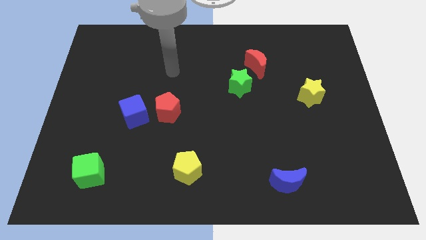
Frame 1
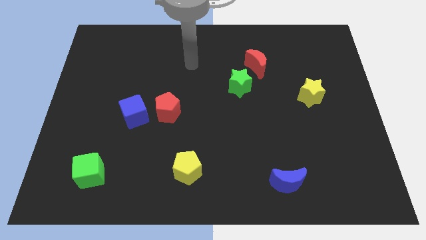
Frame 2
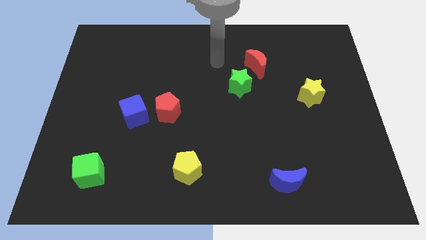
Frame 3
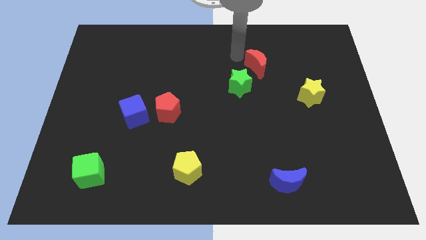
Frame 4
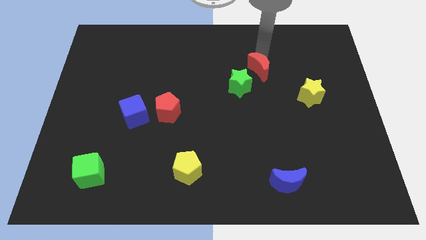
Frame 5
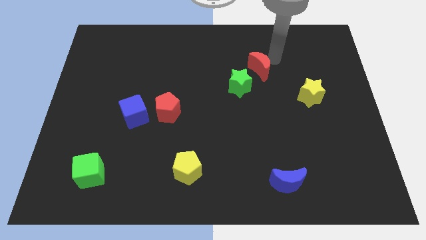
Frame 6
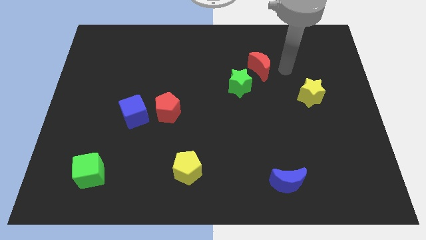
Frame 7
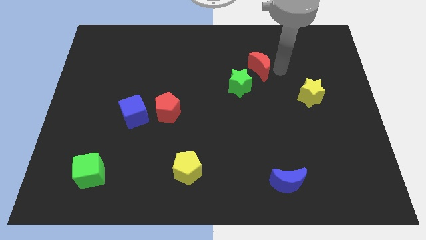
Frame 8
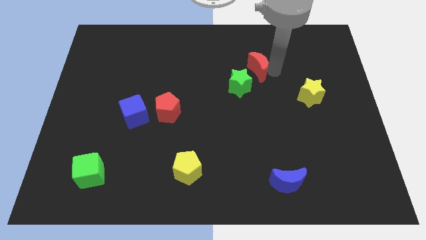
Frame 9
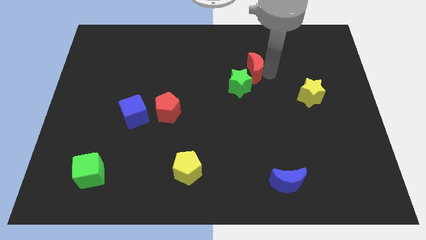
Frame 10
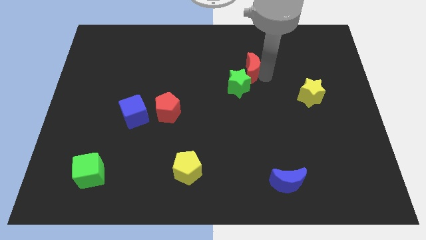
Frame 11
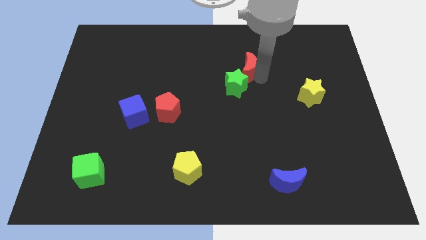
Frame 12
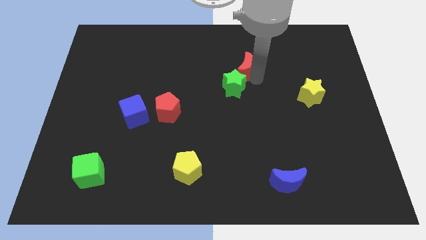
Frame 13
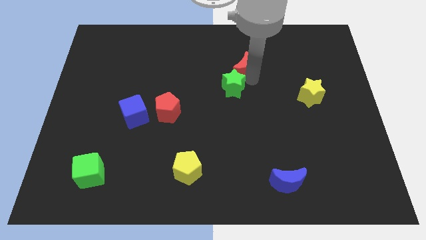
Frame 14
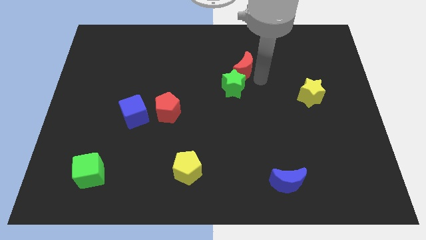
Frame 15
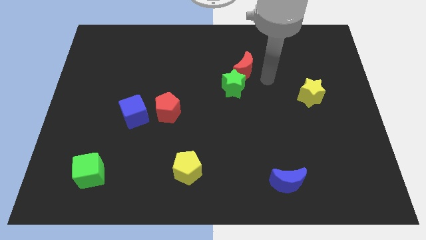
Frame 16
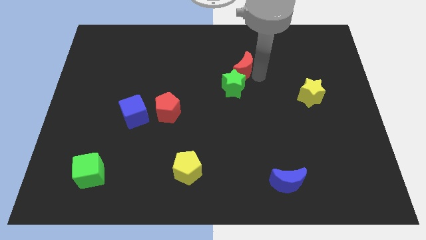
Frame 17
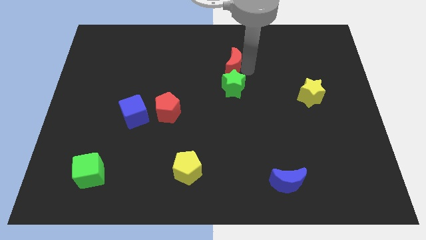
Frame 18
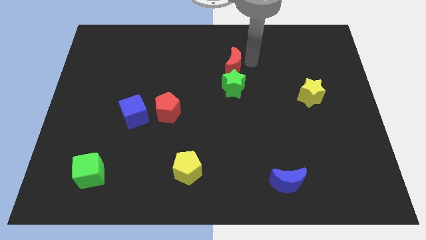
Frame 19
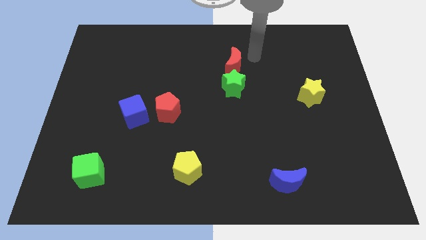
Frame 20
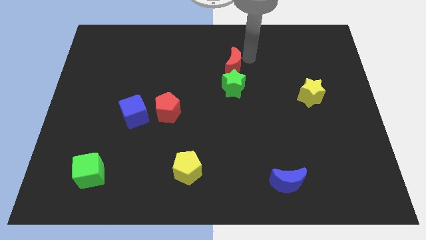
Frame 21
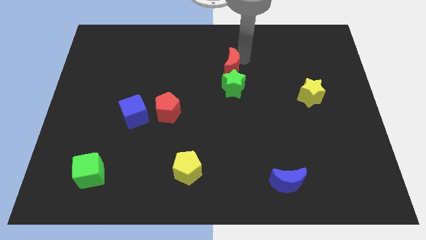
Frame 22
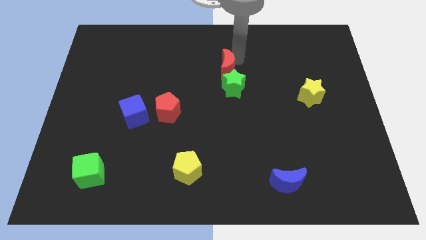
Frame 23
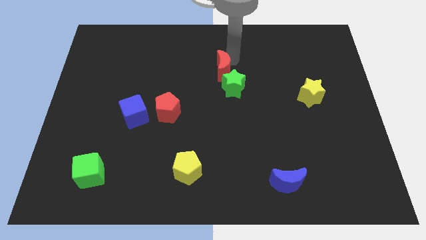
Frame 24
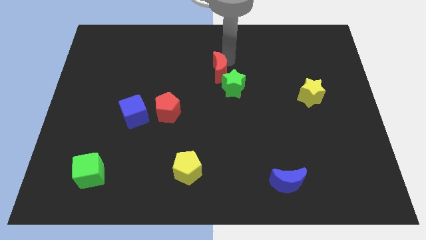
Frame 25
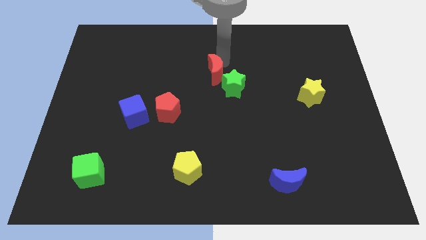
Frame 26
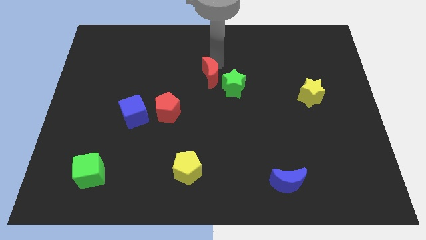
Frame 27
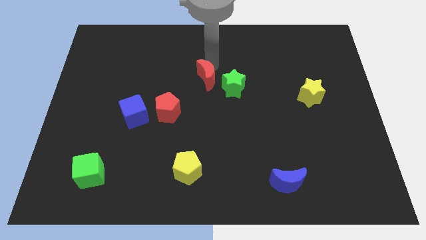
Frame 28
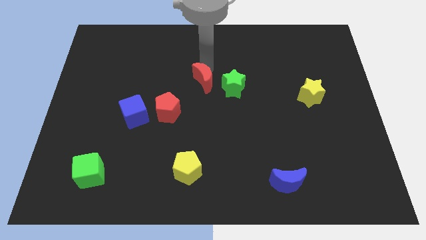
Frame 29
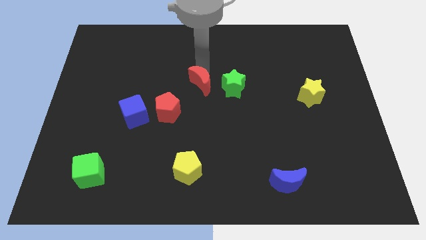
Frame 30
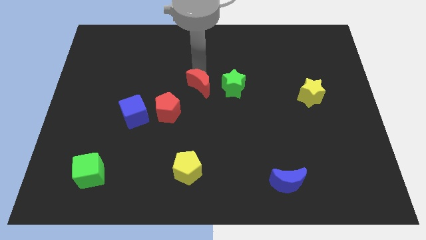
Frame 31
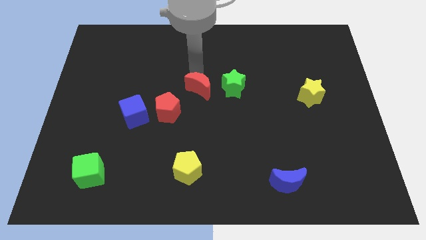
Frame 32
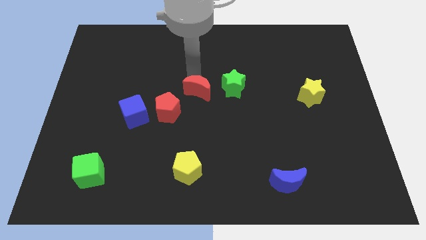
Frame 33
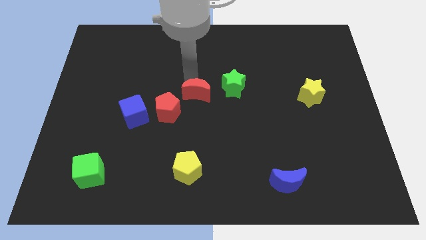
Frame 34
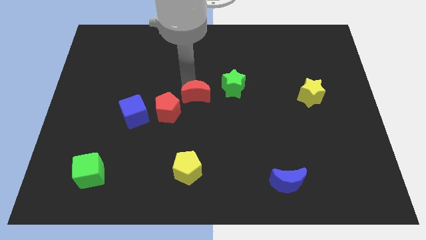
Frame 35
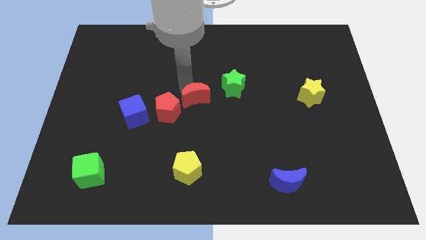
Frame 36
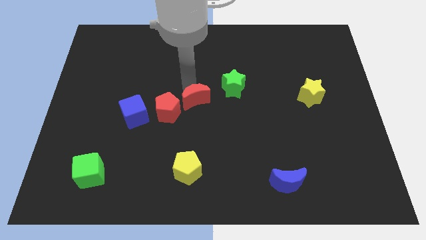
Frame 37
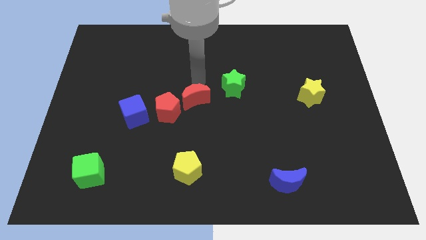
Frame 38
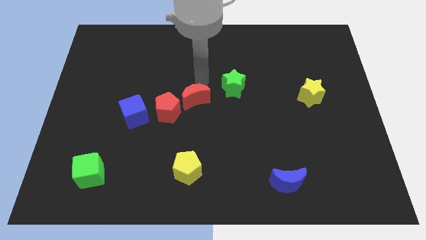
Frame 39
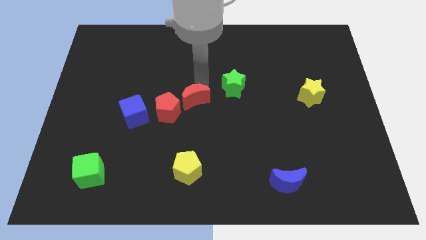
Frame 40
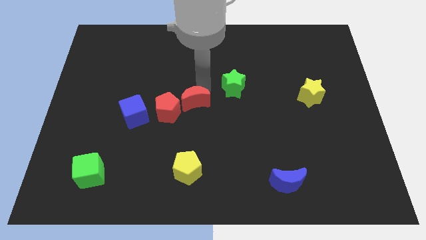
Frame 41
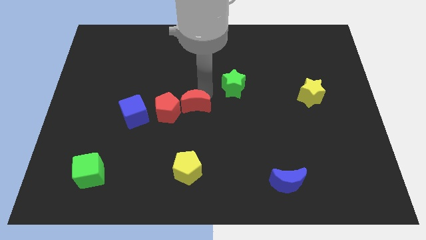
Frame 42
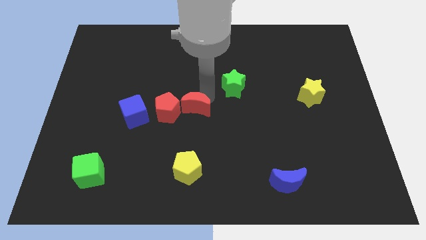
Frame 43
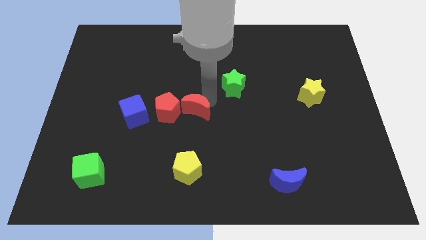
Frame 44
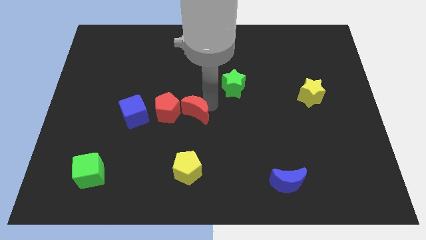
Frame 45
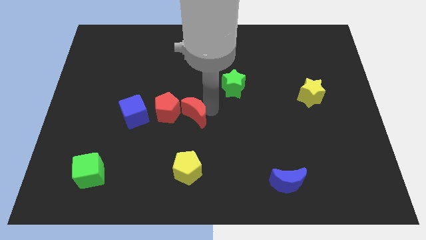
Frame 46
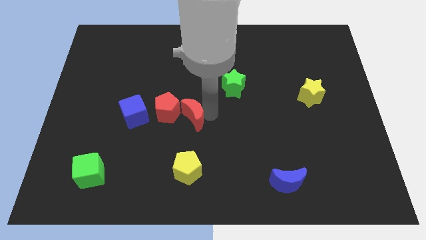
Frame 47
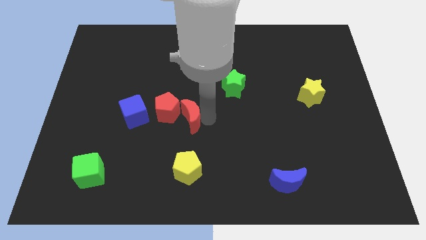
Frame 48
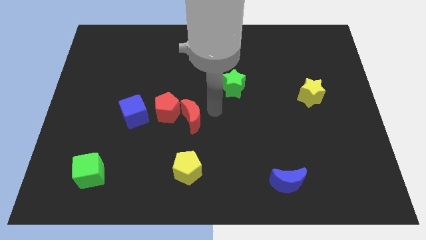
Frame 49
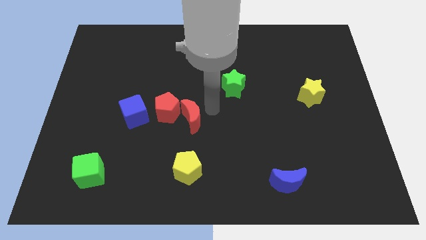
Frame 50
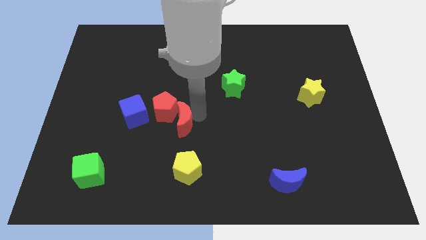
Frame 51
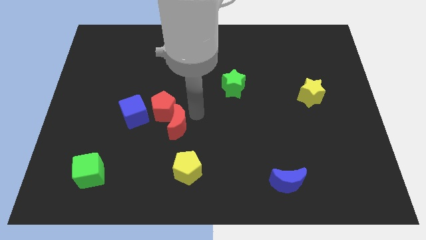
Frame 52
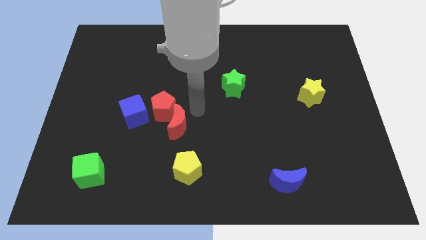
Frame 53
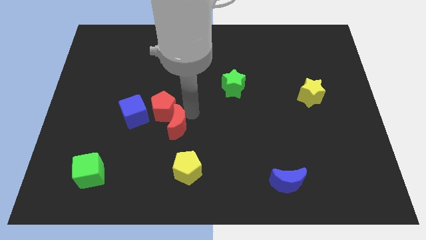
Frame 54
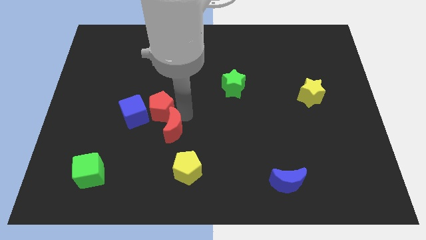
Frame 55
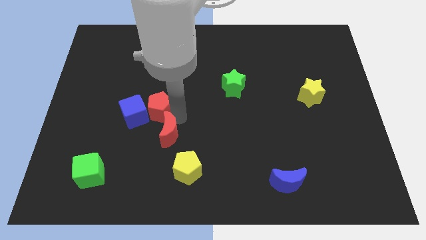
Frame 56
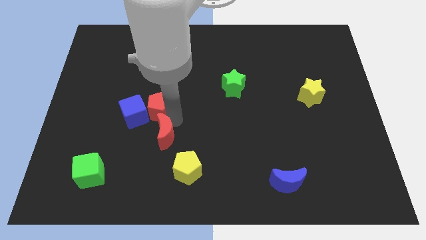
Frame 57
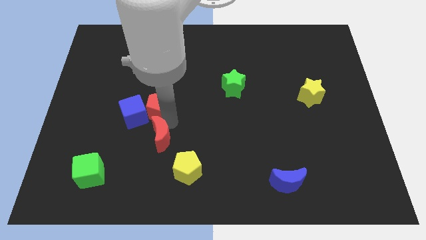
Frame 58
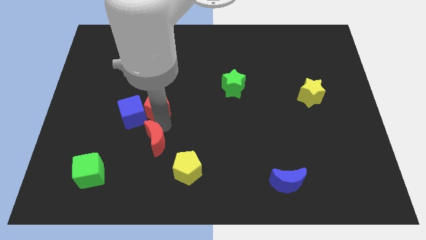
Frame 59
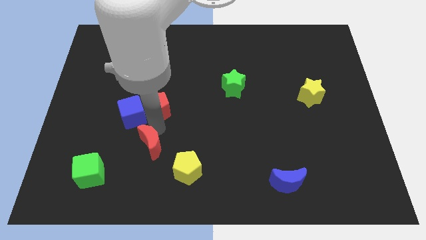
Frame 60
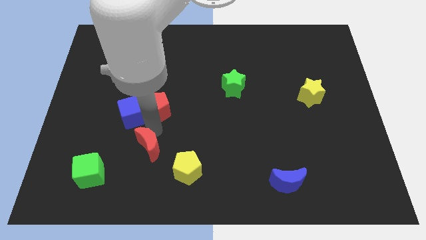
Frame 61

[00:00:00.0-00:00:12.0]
slide the red moon below the blue cube

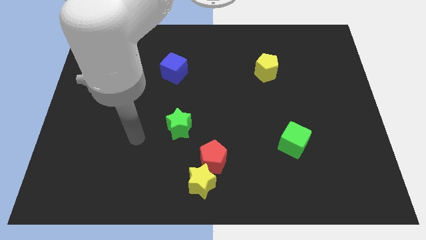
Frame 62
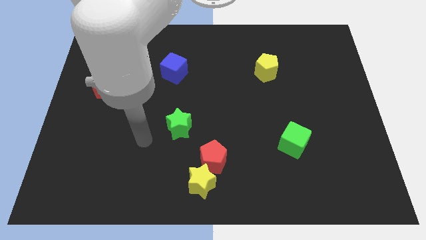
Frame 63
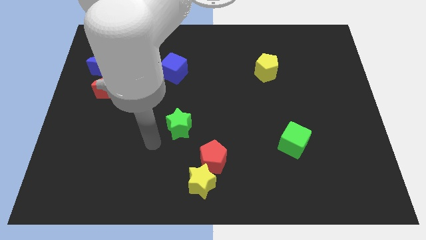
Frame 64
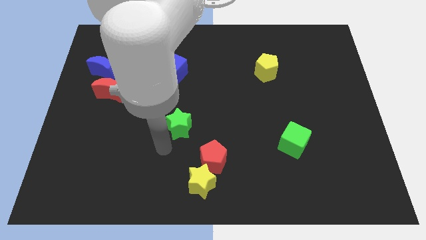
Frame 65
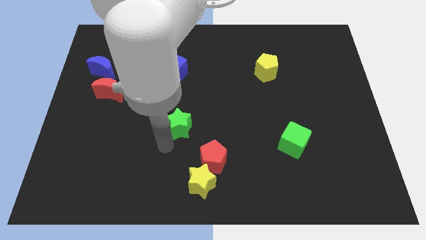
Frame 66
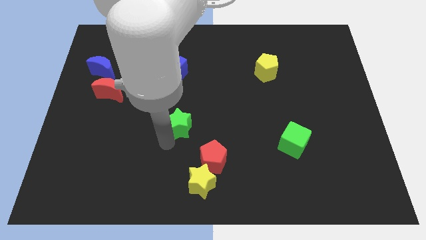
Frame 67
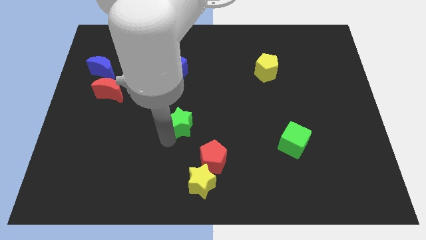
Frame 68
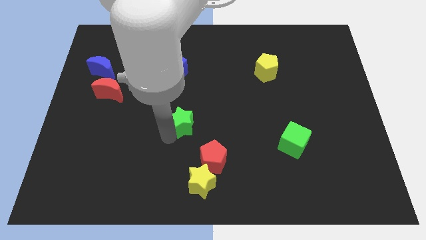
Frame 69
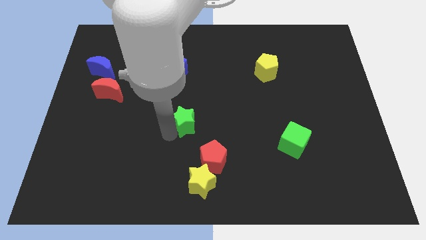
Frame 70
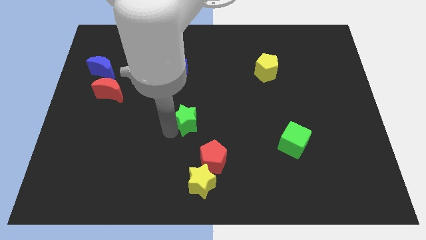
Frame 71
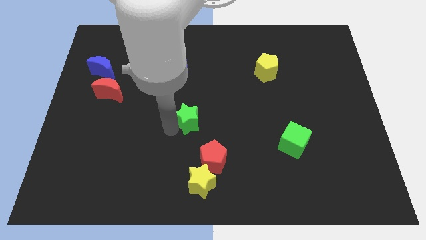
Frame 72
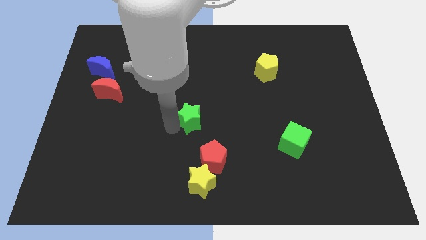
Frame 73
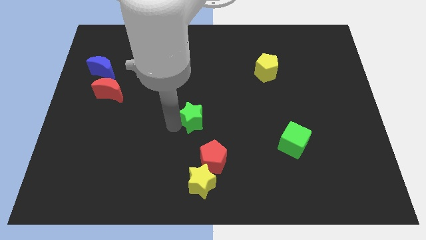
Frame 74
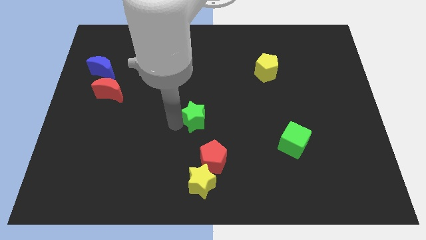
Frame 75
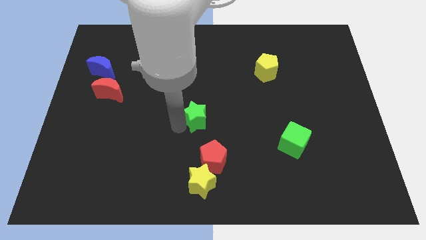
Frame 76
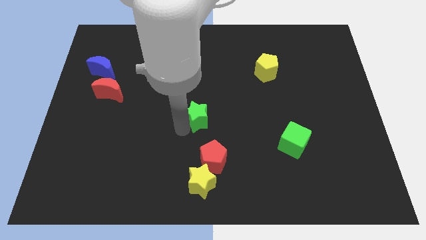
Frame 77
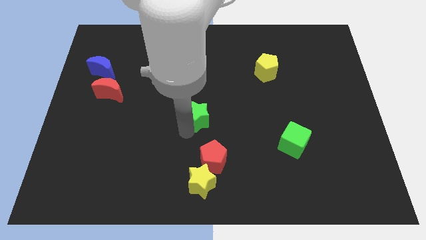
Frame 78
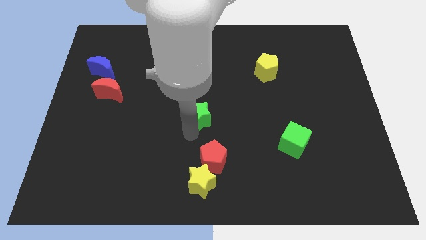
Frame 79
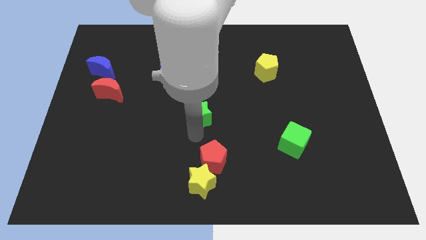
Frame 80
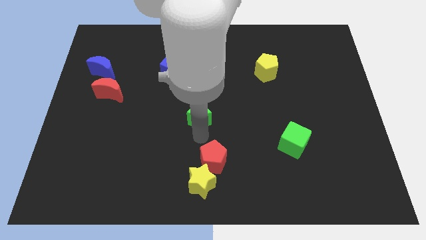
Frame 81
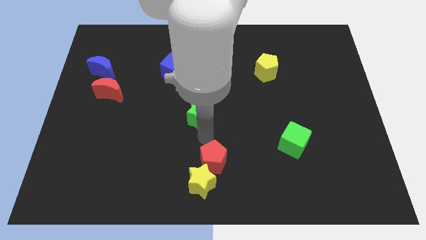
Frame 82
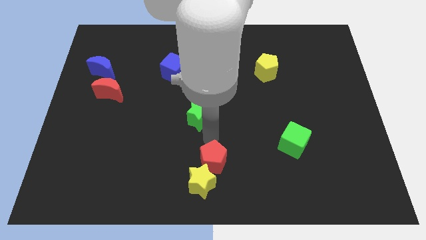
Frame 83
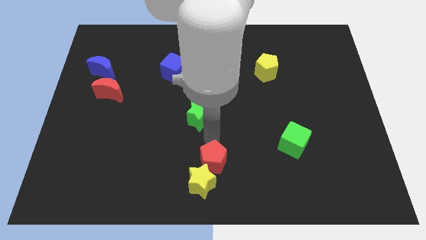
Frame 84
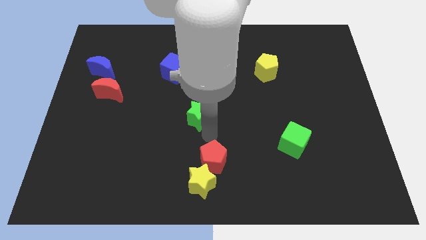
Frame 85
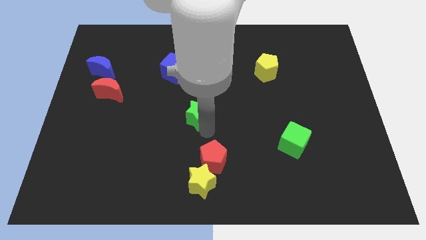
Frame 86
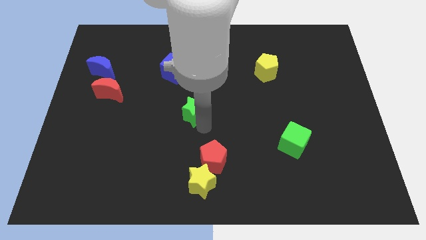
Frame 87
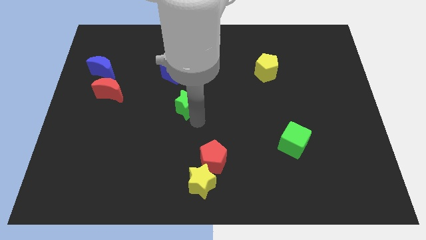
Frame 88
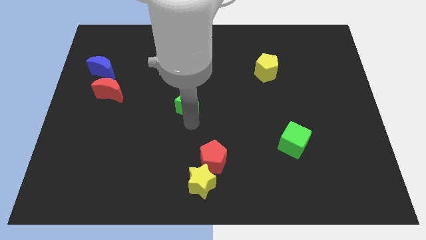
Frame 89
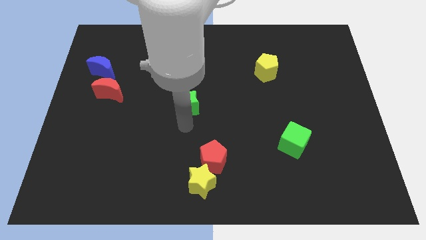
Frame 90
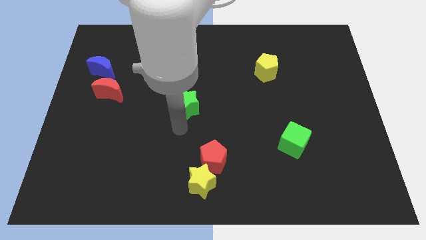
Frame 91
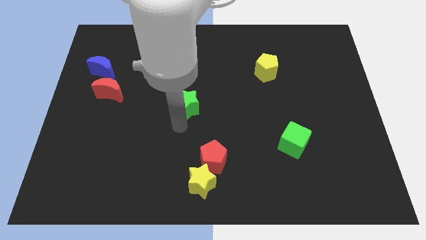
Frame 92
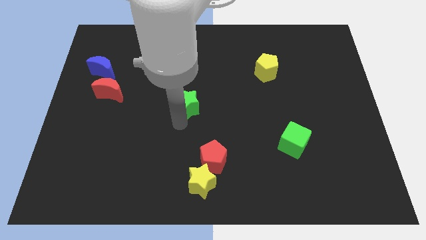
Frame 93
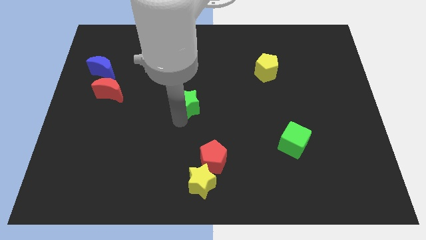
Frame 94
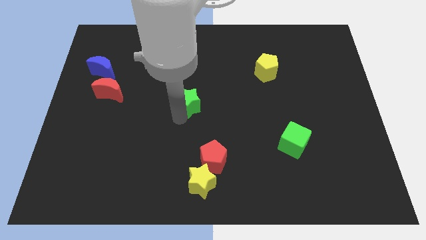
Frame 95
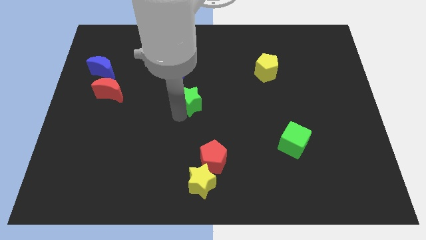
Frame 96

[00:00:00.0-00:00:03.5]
slide the green star to the bottom right side of the blue cube
